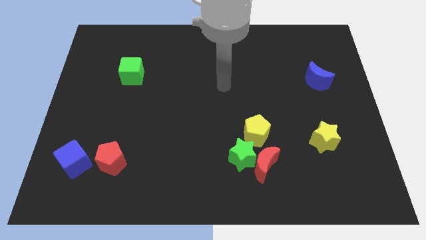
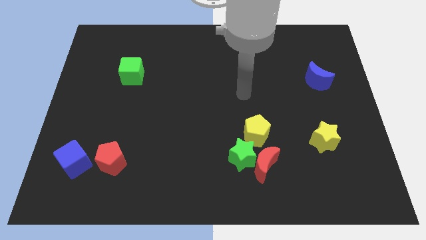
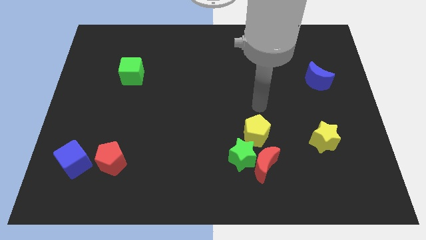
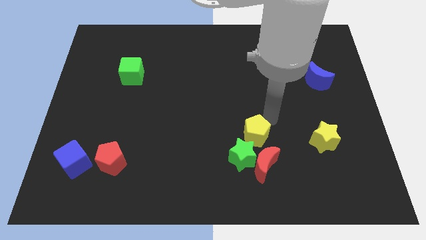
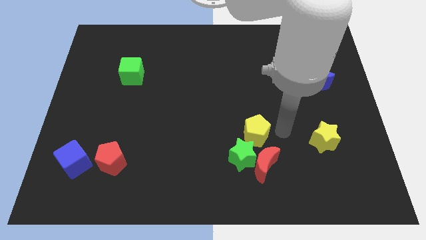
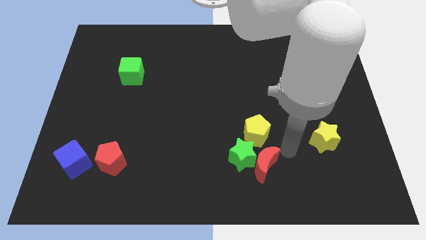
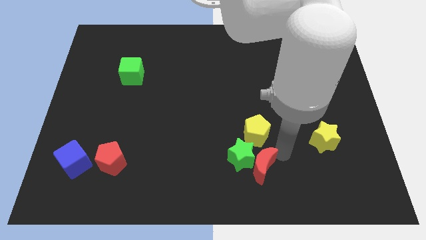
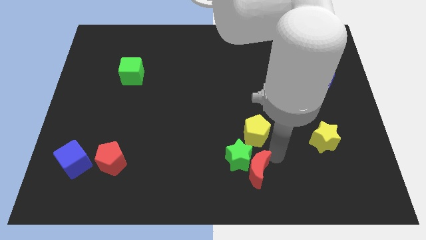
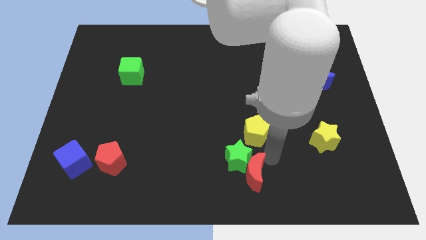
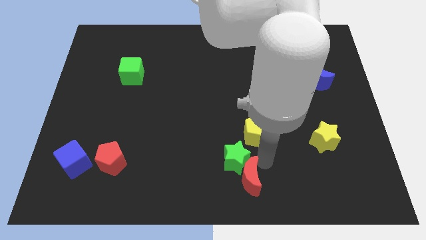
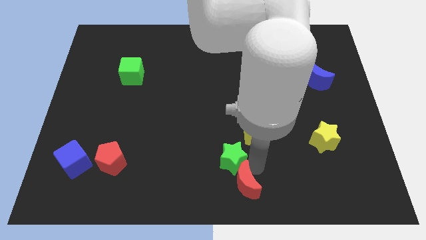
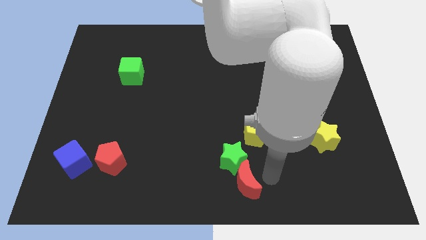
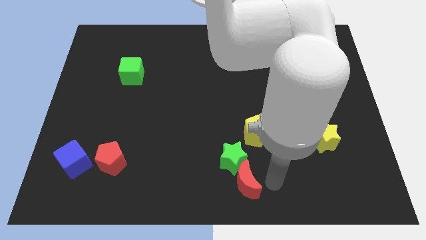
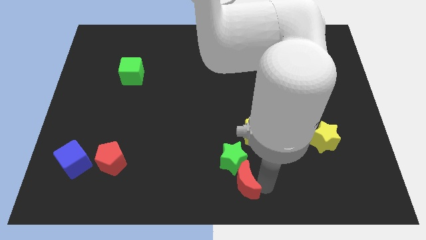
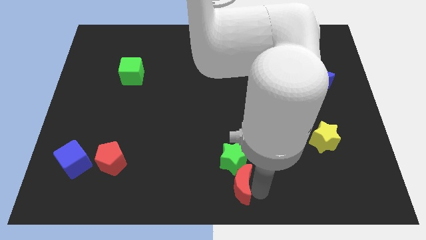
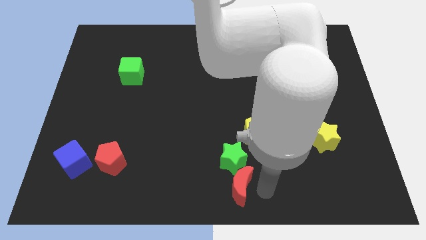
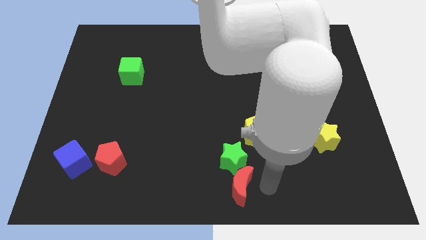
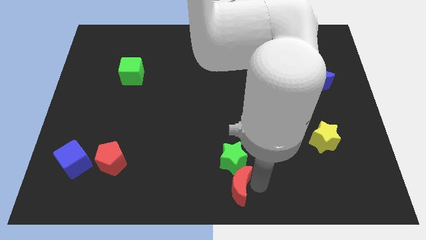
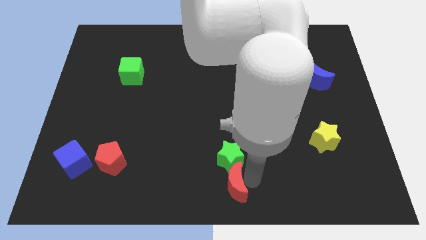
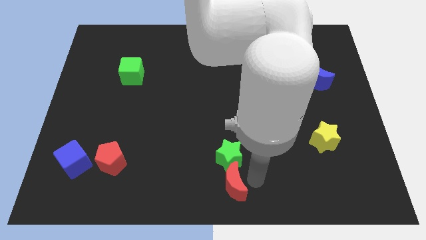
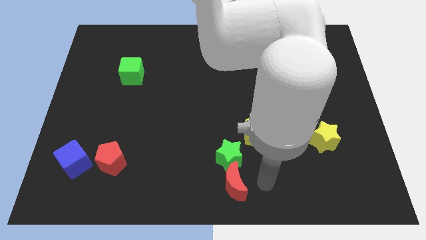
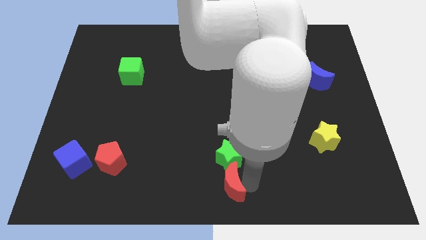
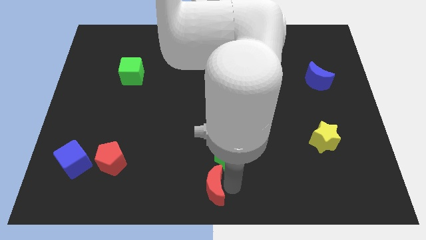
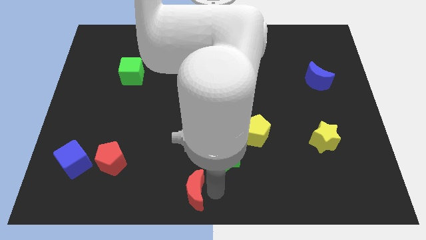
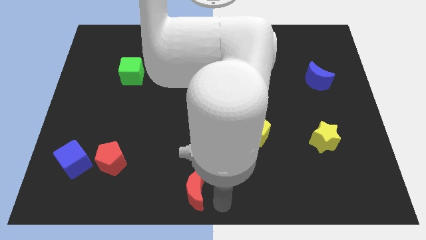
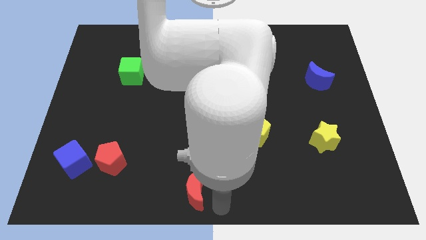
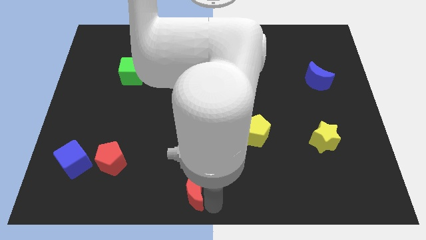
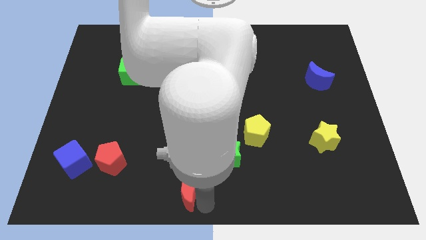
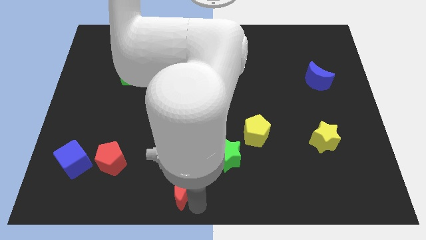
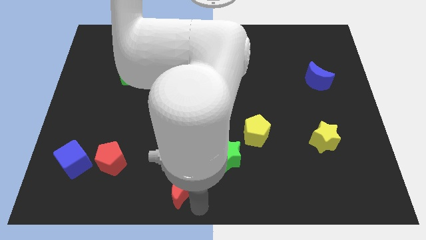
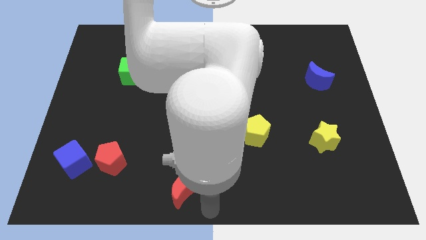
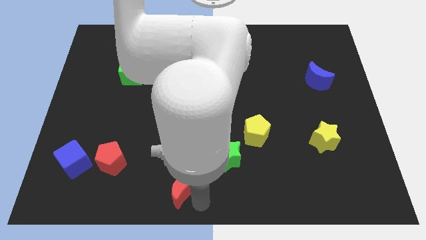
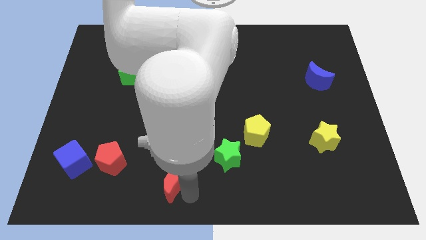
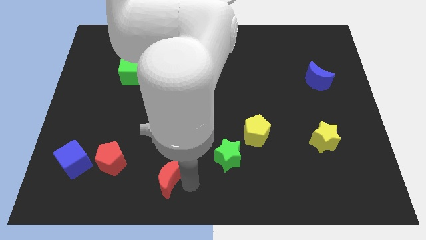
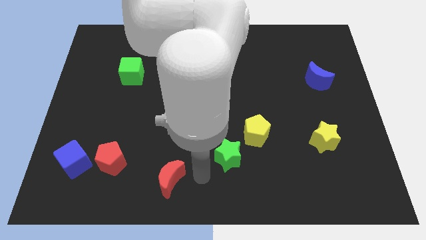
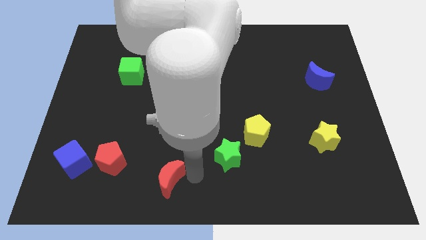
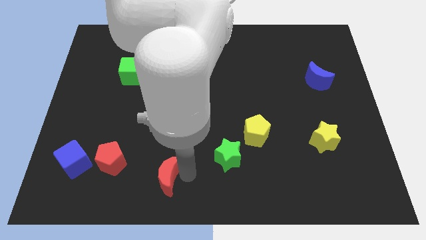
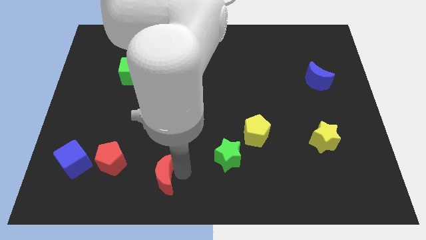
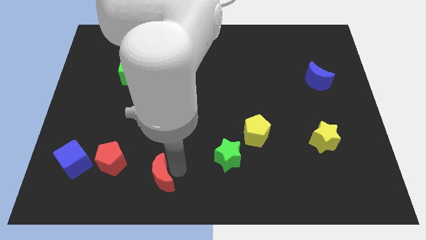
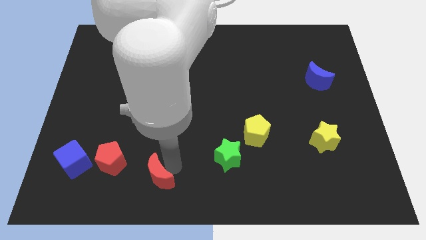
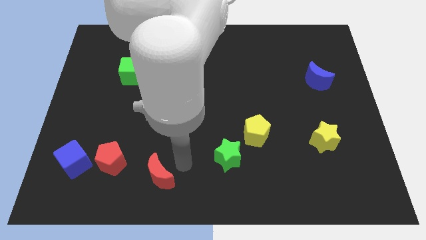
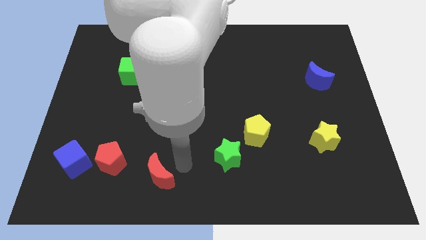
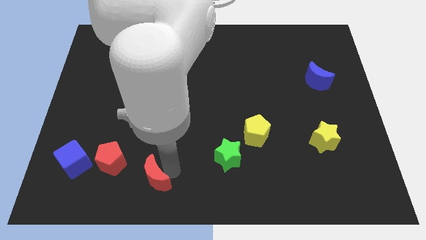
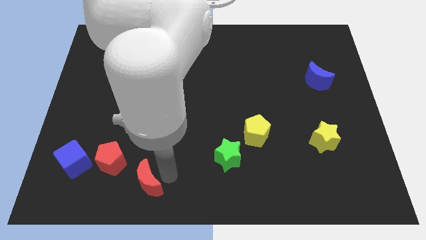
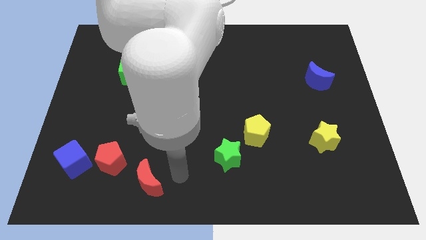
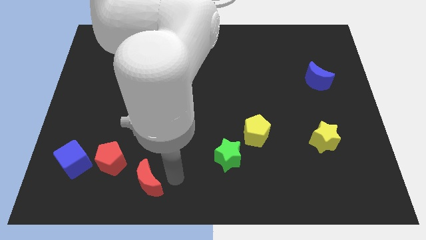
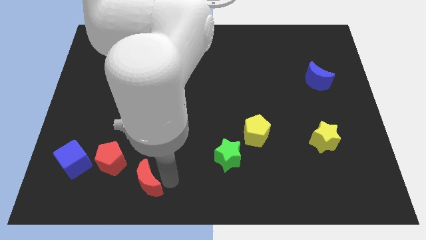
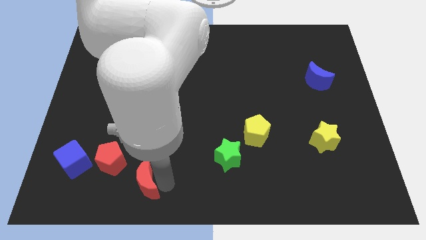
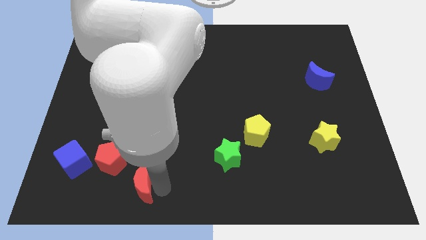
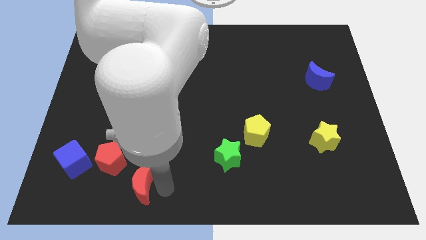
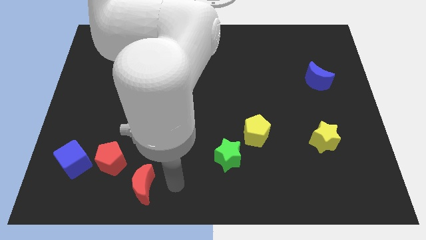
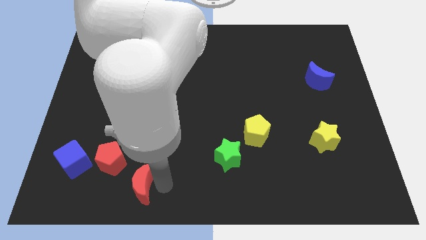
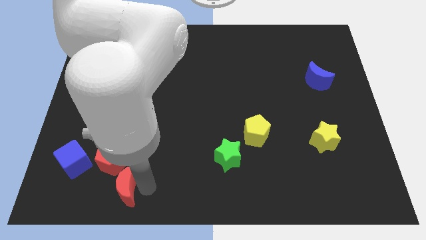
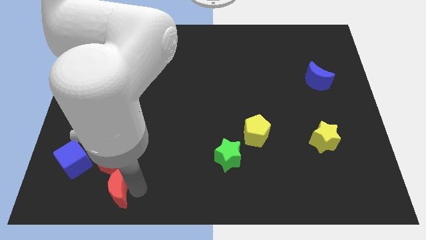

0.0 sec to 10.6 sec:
push the red moon to the bottom right of the blue cube

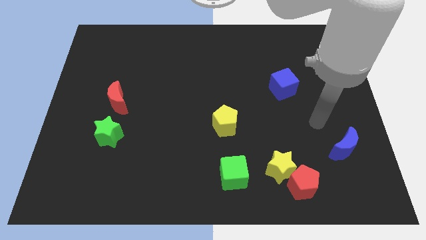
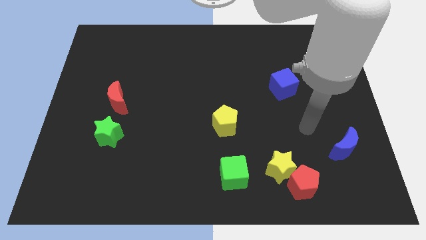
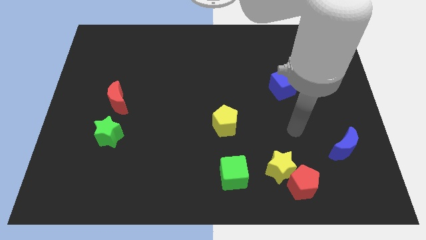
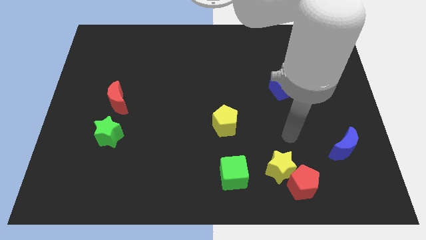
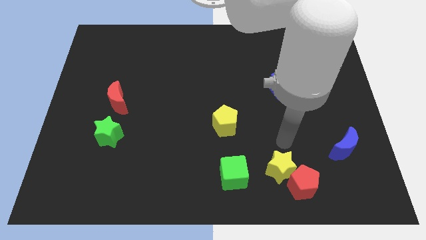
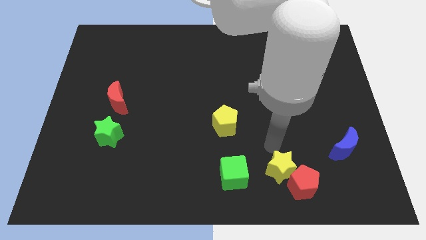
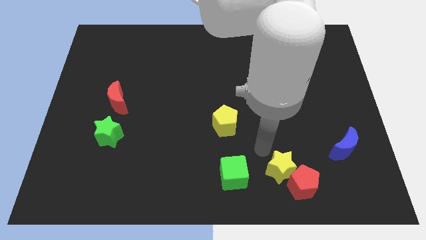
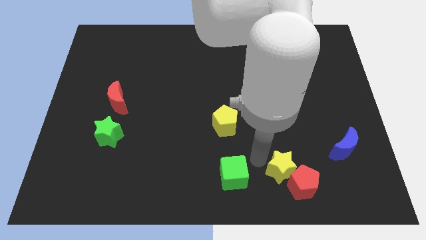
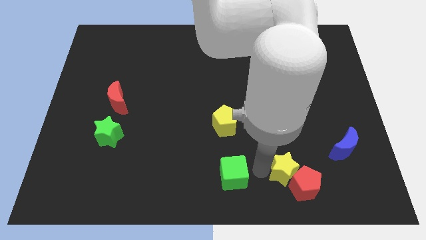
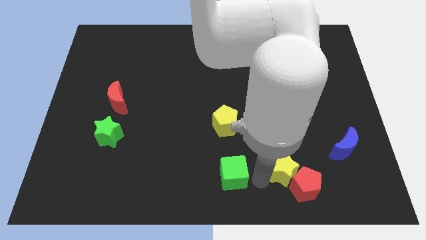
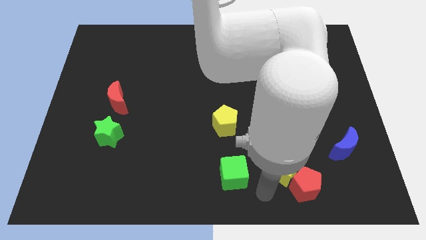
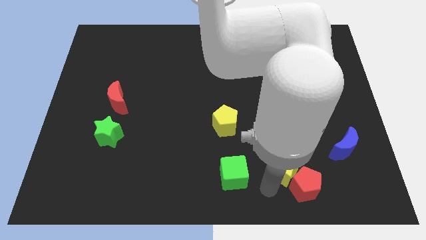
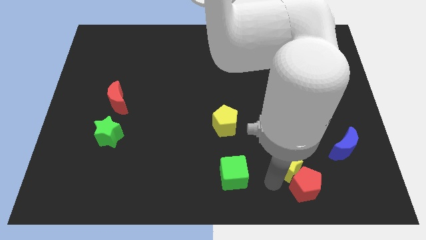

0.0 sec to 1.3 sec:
push the yellow star just left of the blue moon

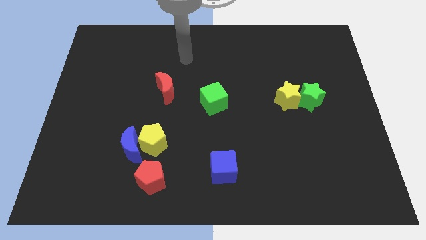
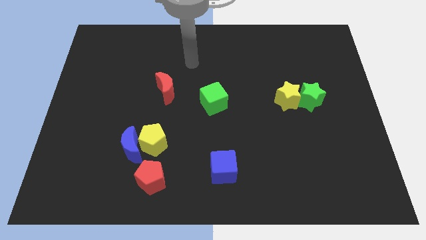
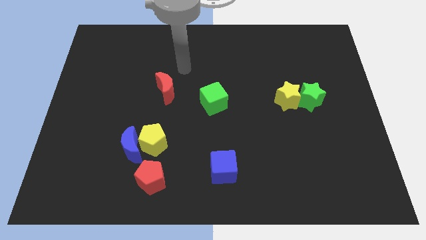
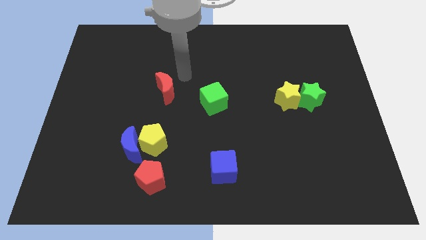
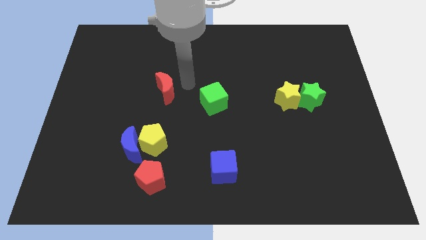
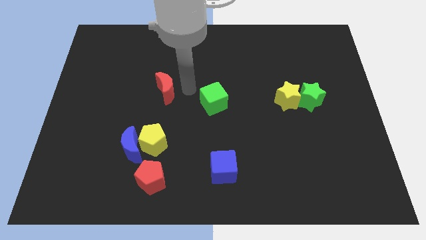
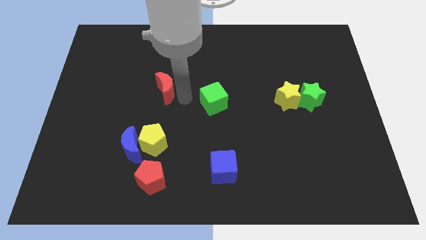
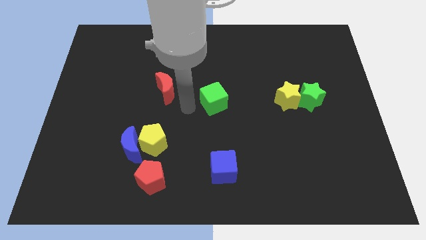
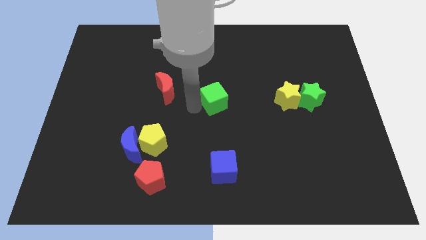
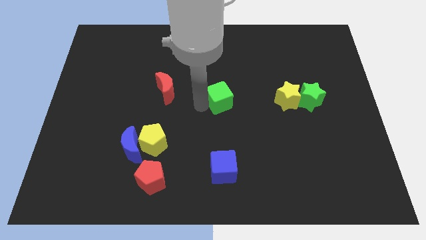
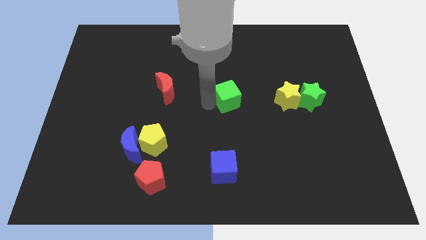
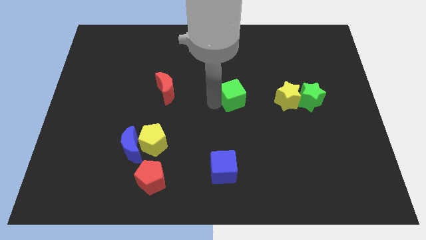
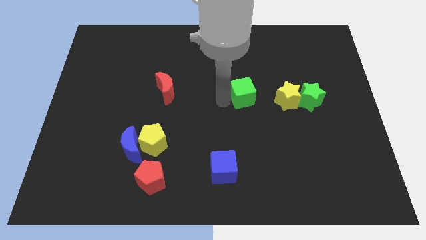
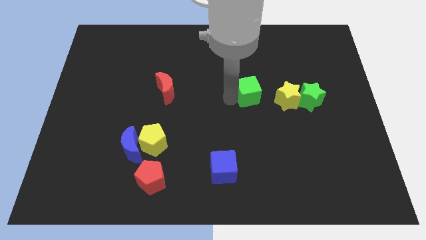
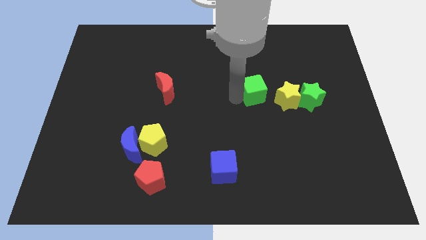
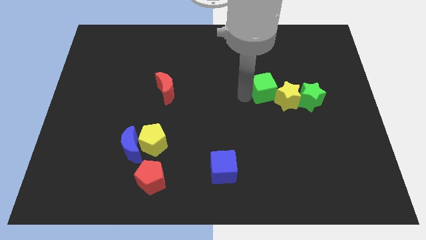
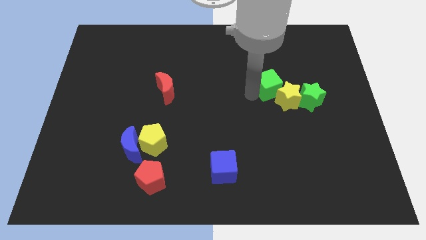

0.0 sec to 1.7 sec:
put the green cube to the top left of the green star

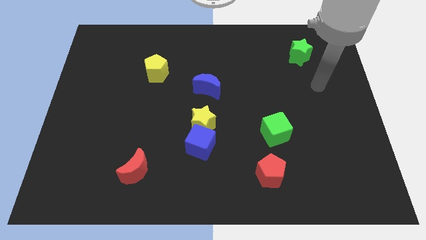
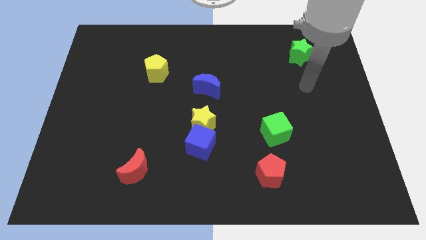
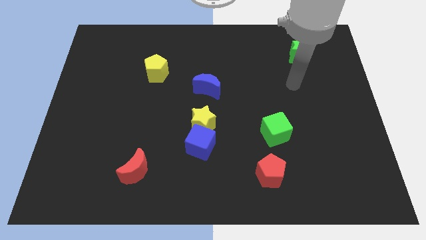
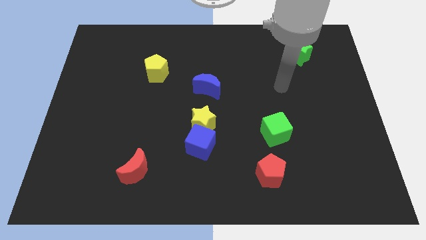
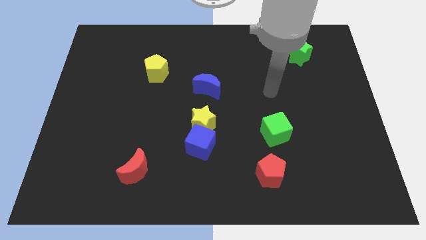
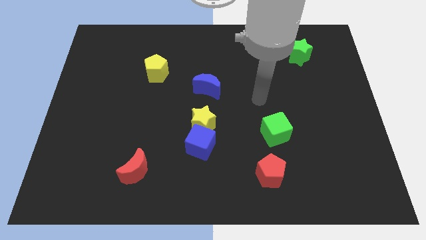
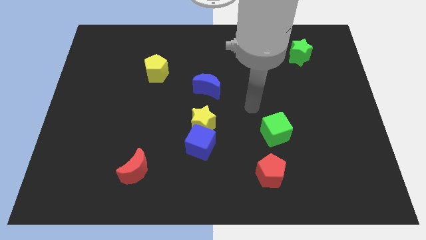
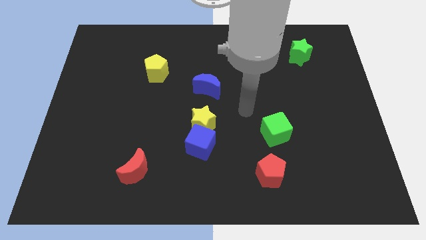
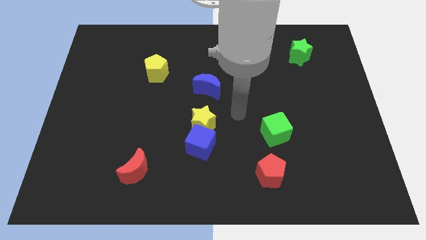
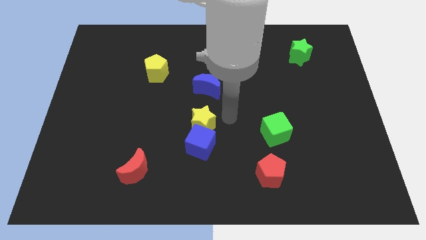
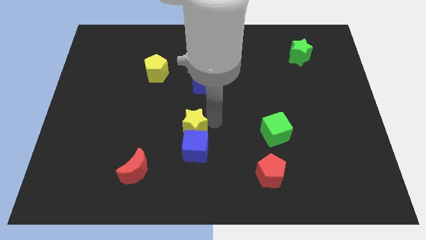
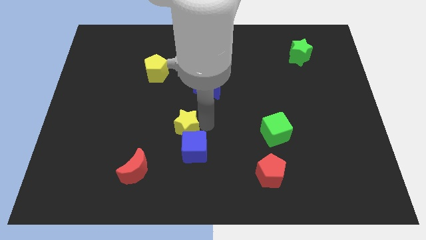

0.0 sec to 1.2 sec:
slide the blue cube to the right side of the red moon
